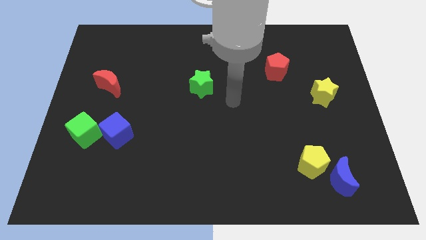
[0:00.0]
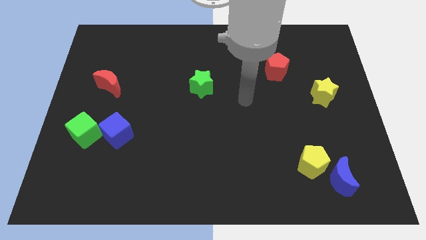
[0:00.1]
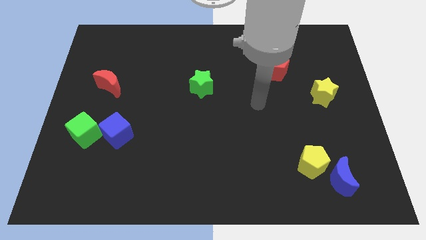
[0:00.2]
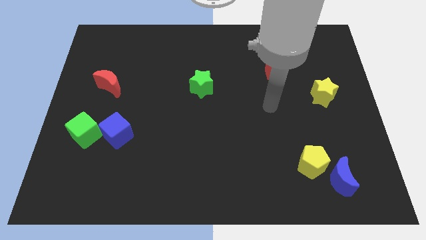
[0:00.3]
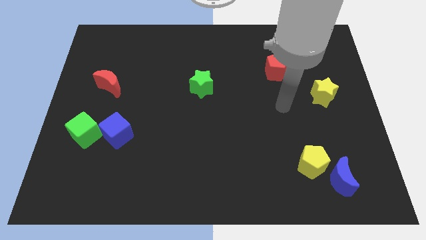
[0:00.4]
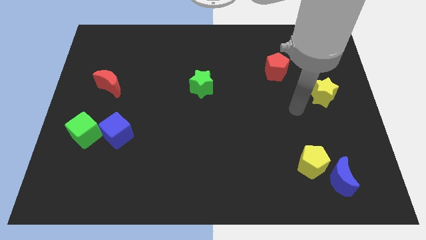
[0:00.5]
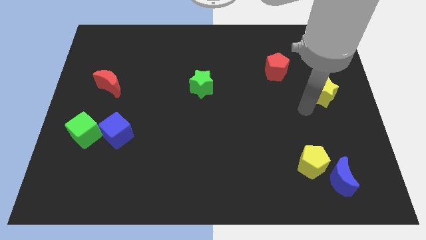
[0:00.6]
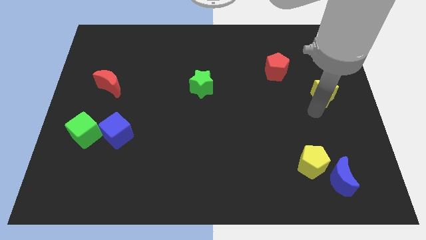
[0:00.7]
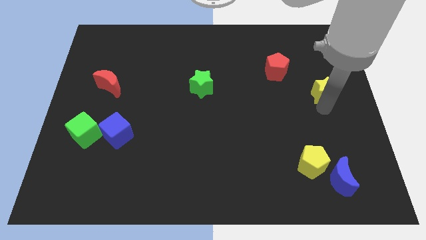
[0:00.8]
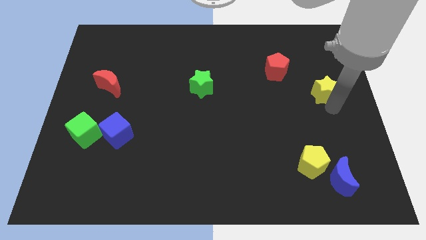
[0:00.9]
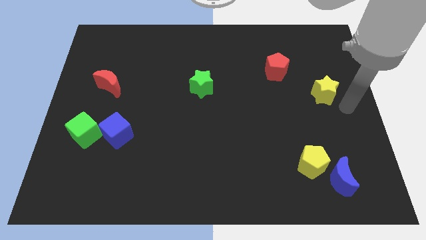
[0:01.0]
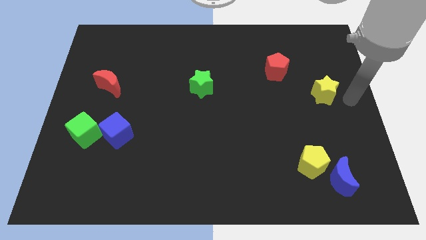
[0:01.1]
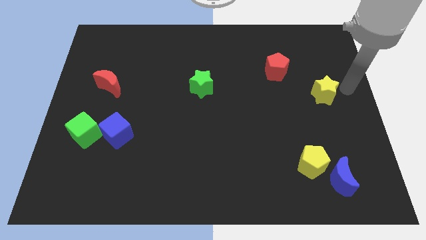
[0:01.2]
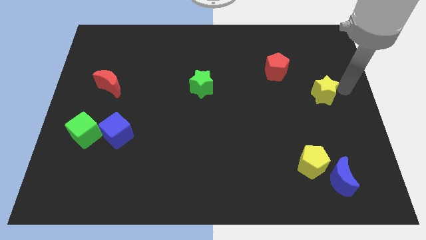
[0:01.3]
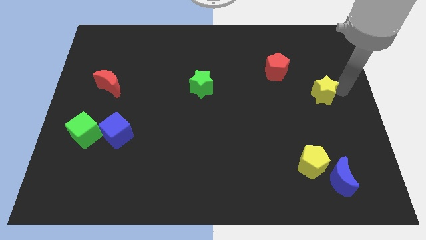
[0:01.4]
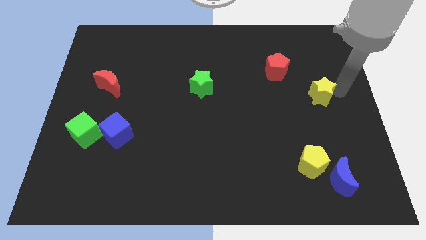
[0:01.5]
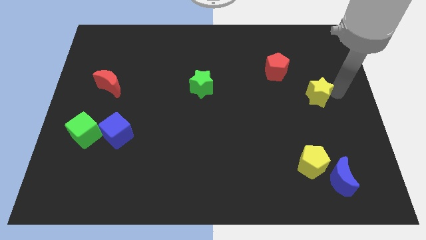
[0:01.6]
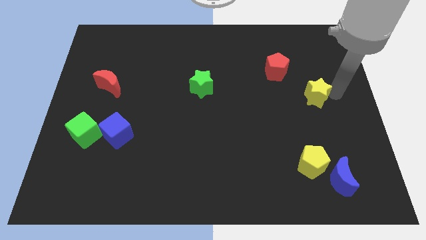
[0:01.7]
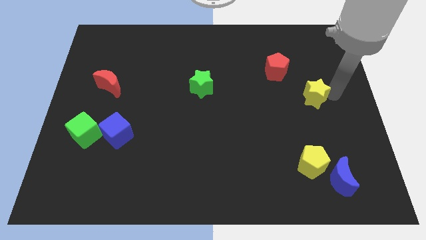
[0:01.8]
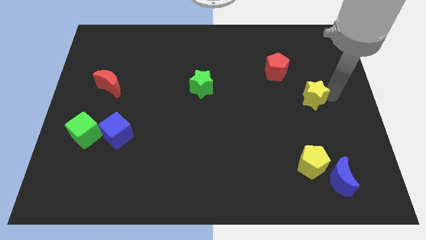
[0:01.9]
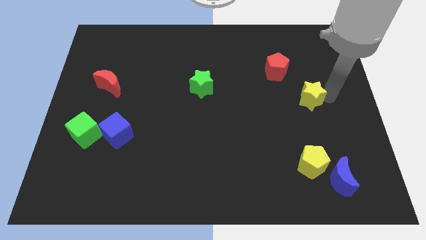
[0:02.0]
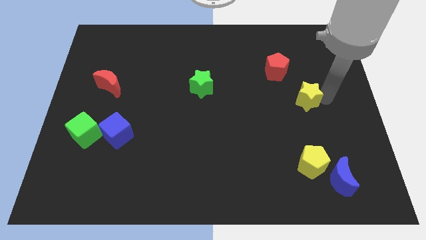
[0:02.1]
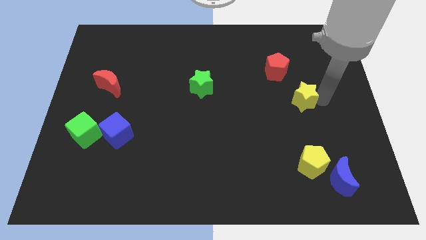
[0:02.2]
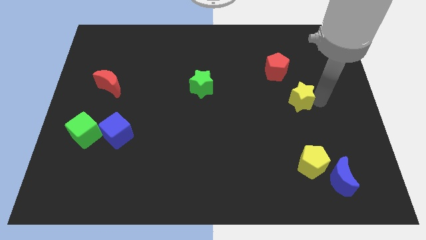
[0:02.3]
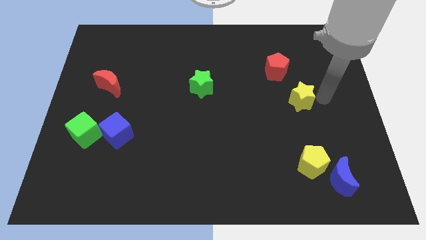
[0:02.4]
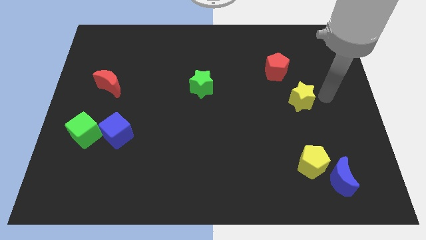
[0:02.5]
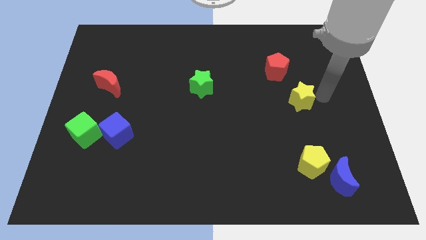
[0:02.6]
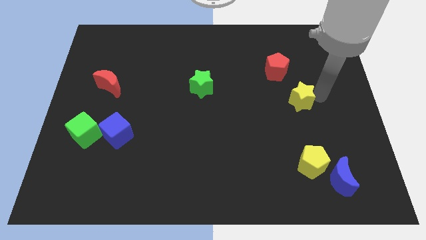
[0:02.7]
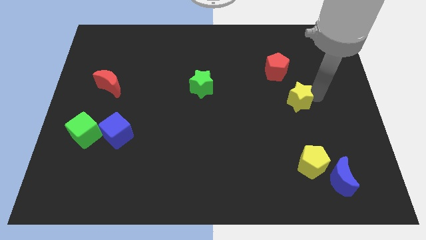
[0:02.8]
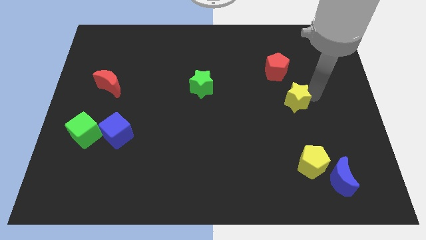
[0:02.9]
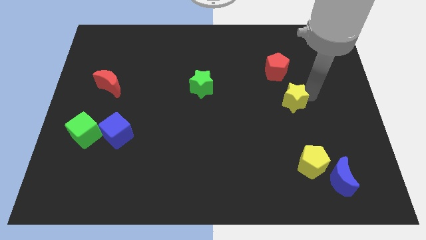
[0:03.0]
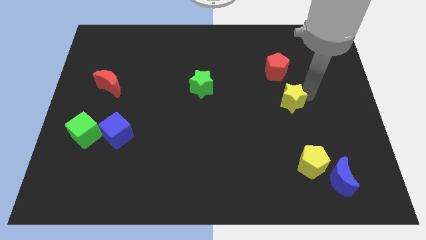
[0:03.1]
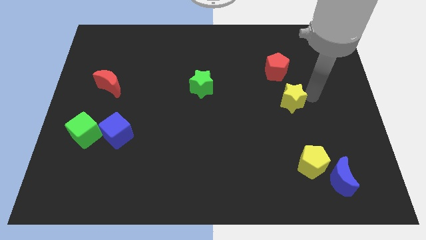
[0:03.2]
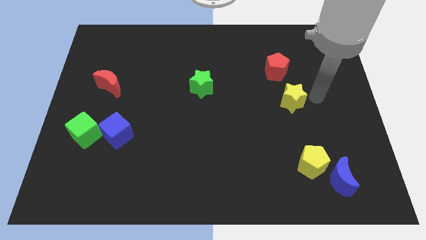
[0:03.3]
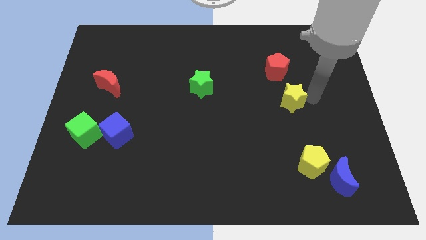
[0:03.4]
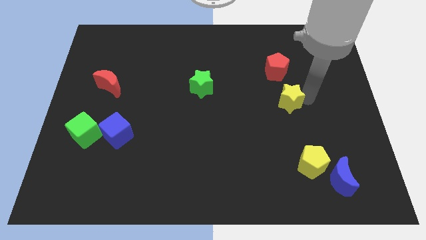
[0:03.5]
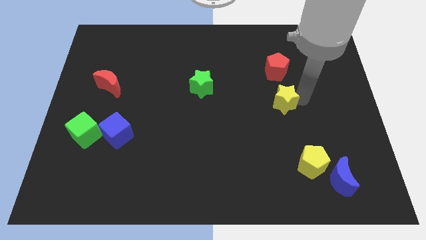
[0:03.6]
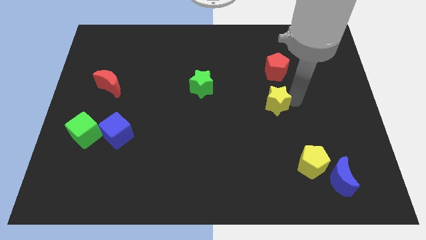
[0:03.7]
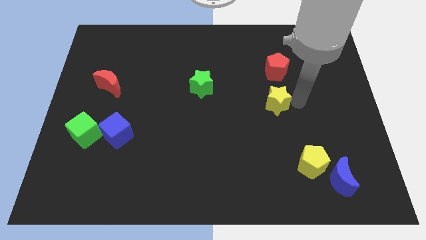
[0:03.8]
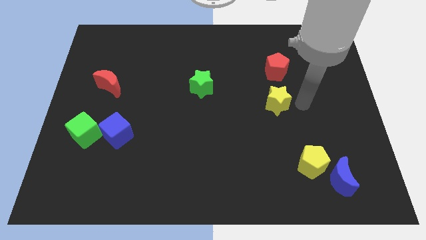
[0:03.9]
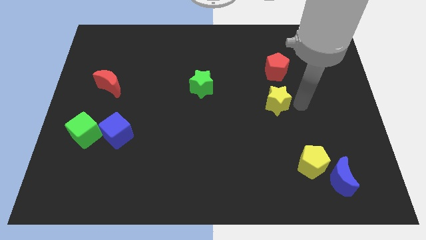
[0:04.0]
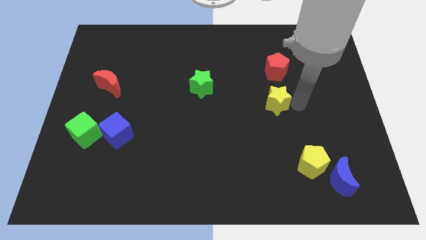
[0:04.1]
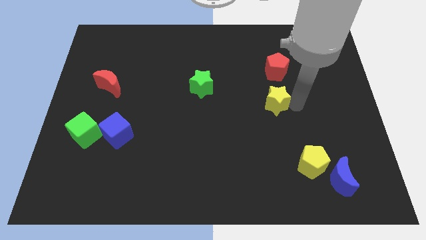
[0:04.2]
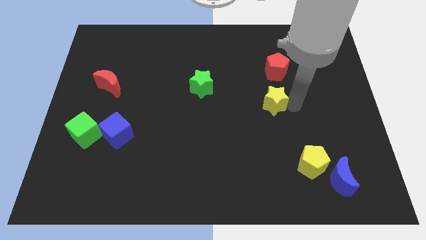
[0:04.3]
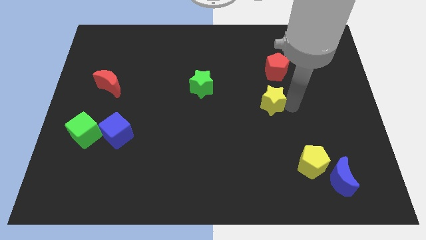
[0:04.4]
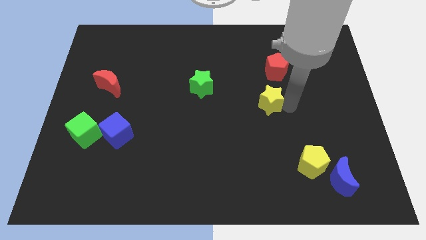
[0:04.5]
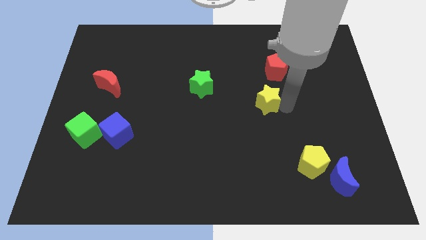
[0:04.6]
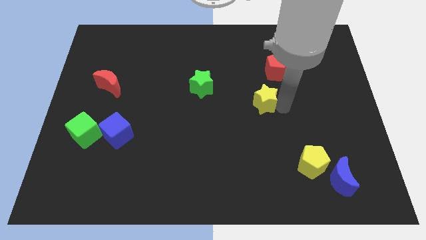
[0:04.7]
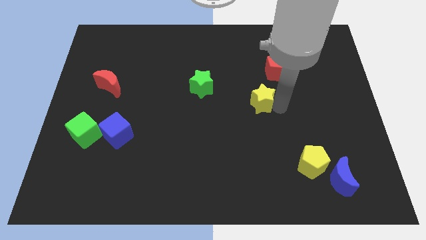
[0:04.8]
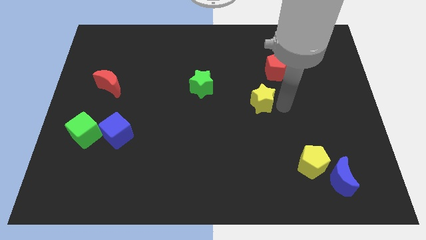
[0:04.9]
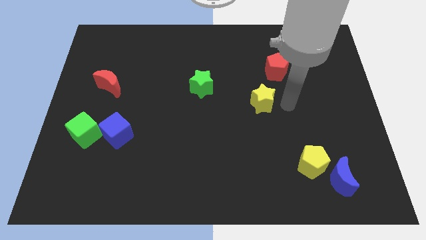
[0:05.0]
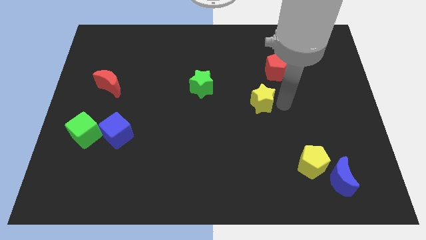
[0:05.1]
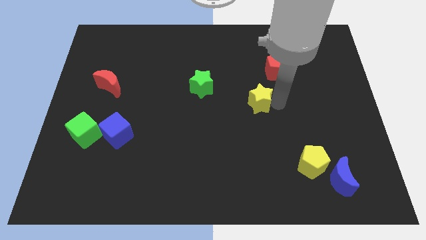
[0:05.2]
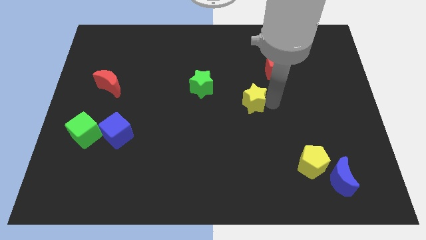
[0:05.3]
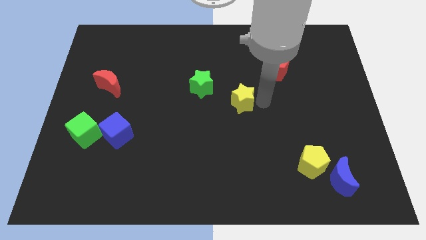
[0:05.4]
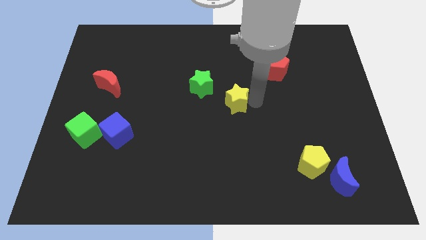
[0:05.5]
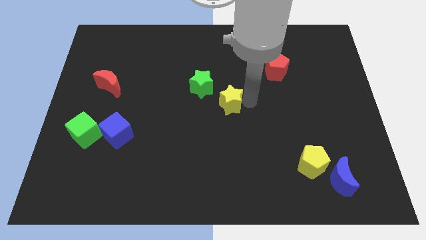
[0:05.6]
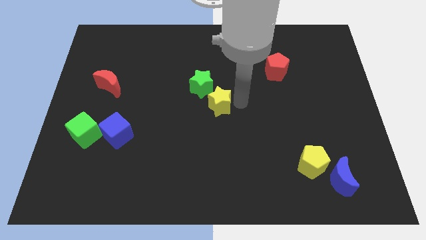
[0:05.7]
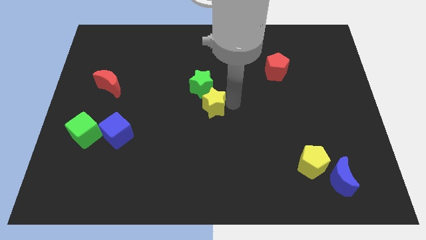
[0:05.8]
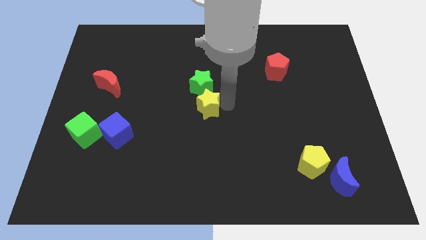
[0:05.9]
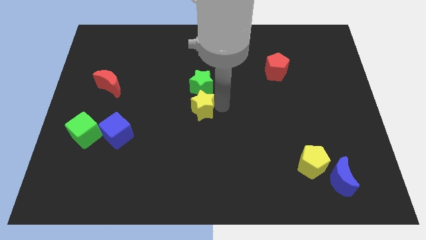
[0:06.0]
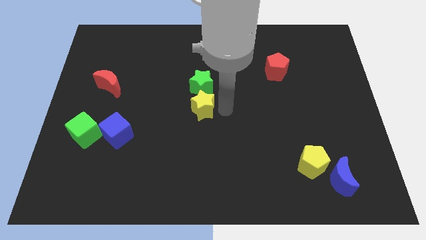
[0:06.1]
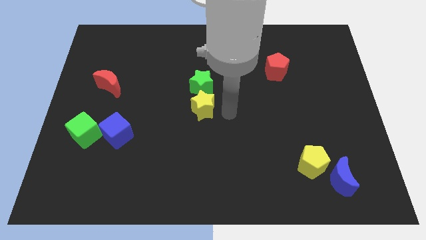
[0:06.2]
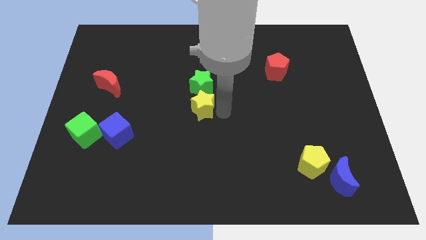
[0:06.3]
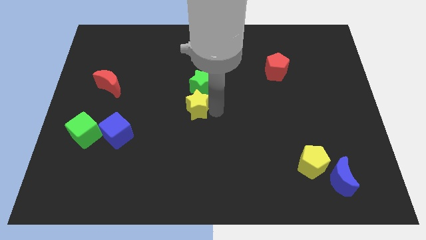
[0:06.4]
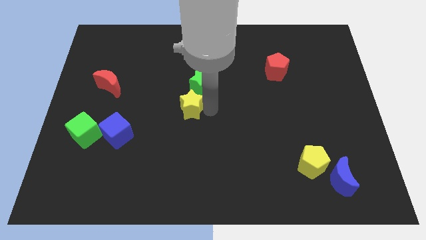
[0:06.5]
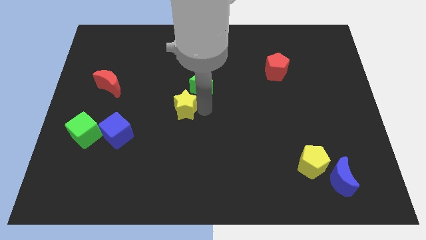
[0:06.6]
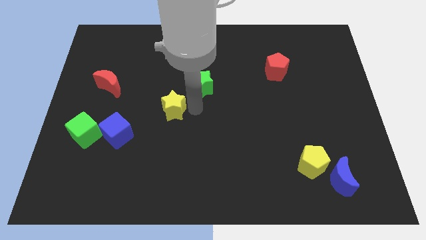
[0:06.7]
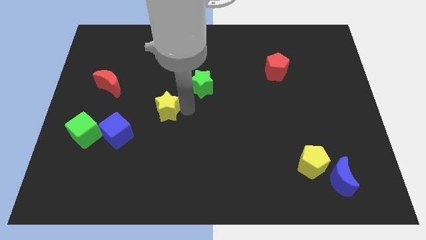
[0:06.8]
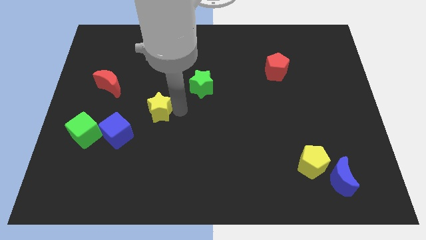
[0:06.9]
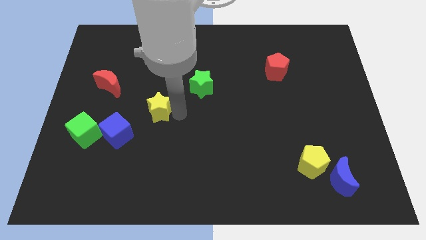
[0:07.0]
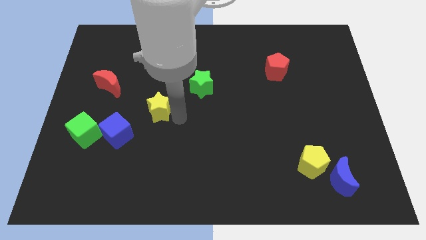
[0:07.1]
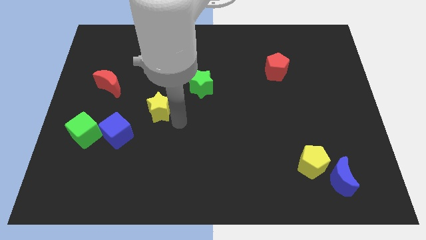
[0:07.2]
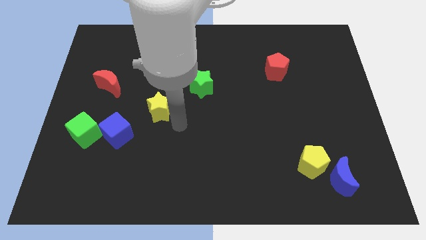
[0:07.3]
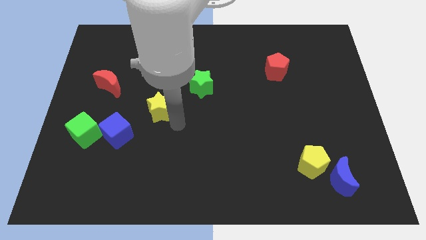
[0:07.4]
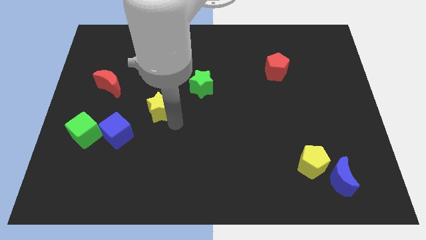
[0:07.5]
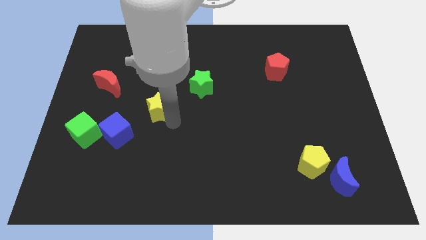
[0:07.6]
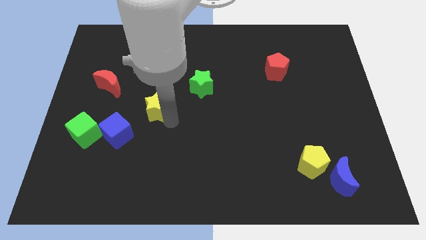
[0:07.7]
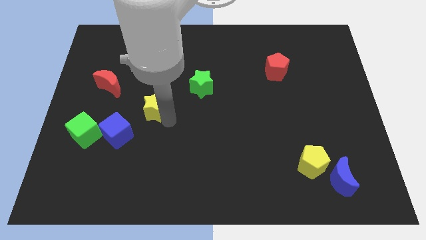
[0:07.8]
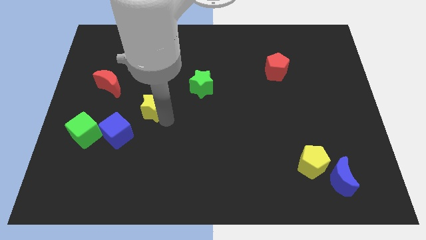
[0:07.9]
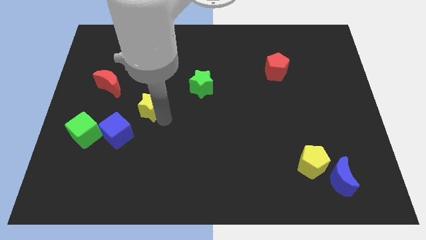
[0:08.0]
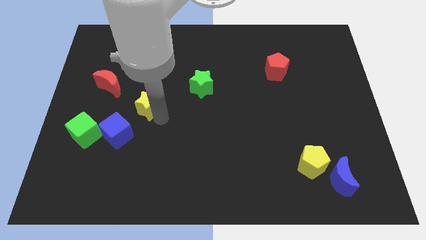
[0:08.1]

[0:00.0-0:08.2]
slide the yellow star to the bottom right of the red moon
